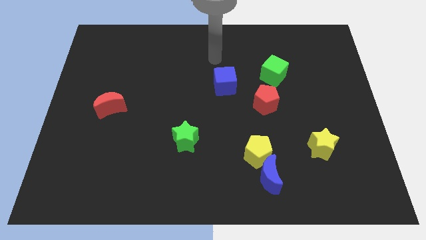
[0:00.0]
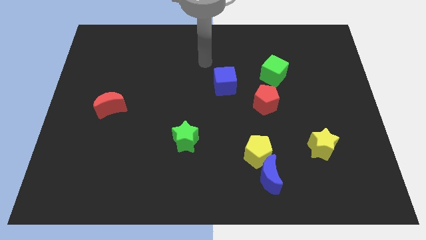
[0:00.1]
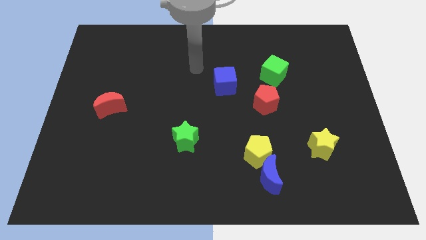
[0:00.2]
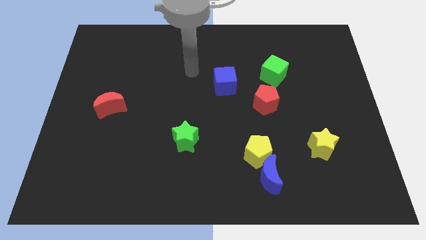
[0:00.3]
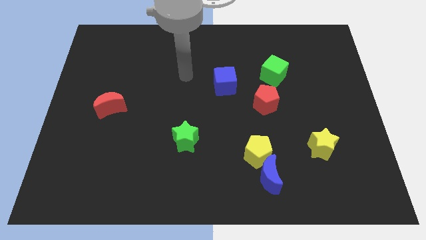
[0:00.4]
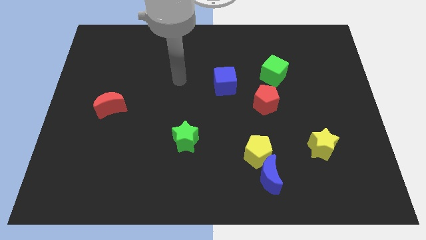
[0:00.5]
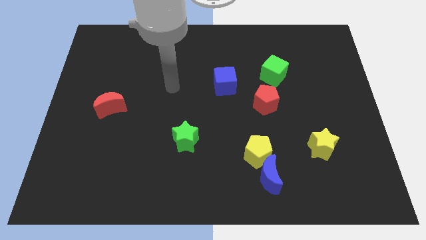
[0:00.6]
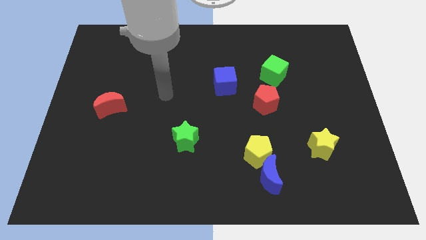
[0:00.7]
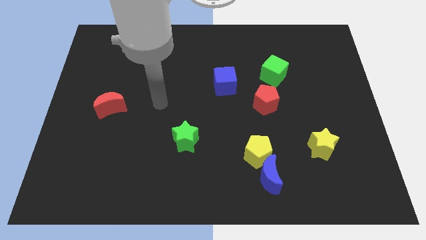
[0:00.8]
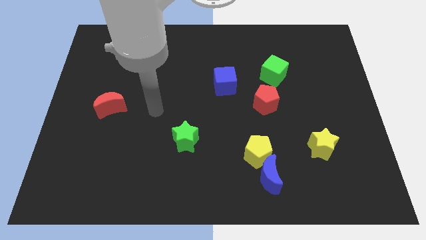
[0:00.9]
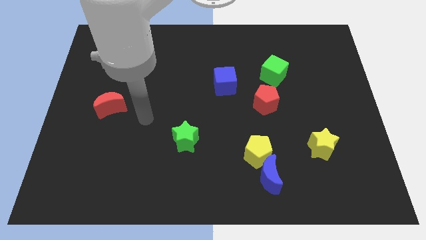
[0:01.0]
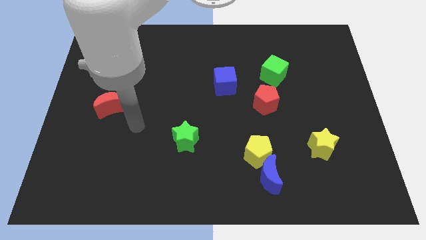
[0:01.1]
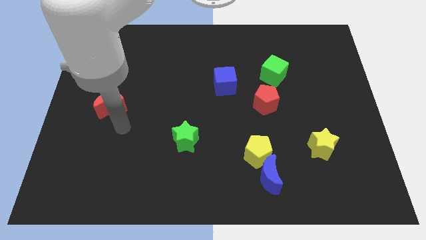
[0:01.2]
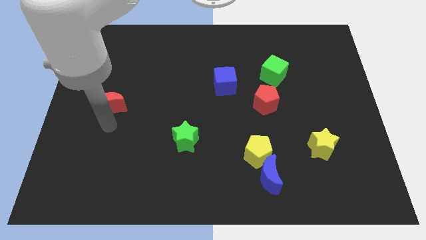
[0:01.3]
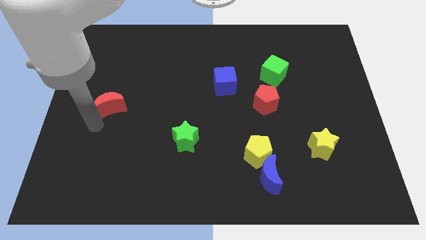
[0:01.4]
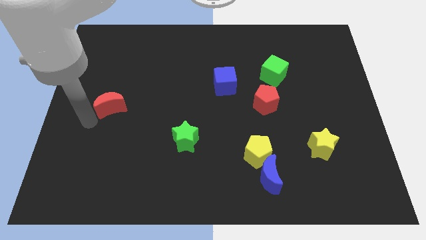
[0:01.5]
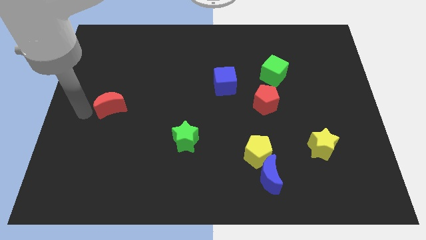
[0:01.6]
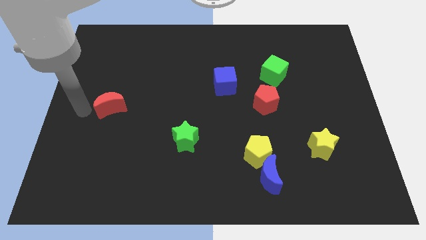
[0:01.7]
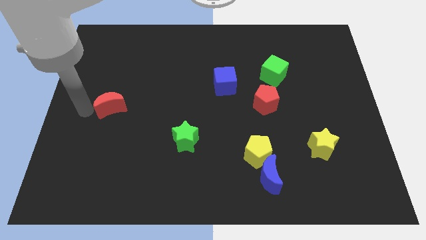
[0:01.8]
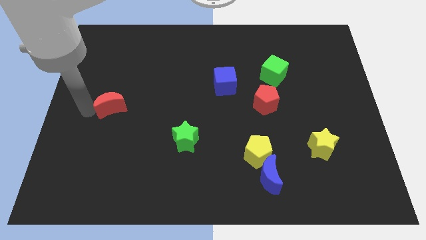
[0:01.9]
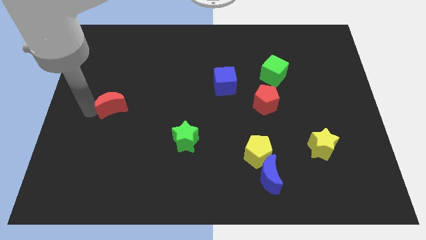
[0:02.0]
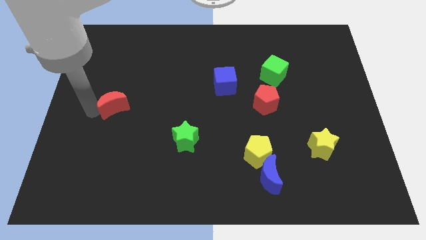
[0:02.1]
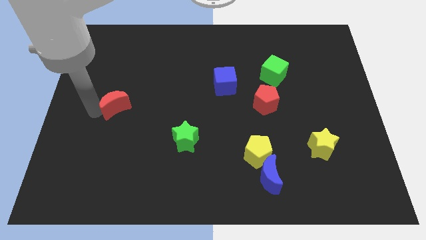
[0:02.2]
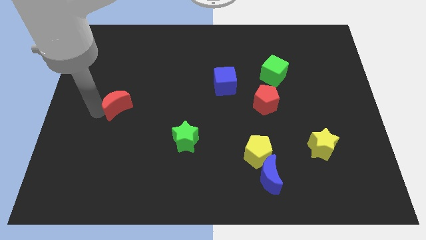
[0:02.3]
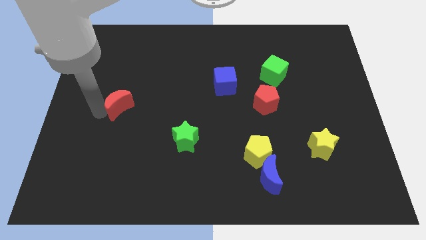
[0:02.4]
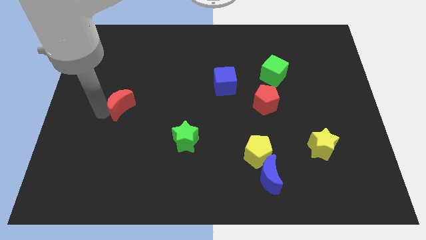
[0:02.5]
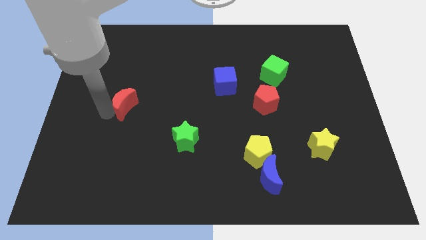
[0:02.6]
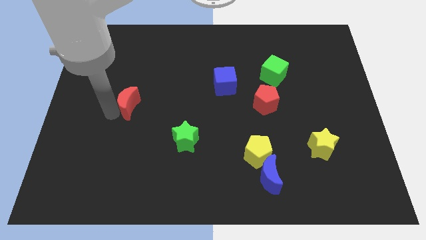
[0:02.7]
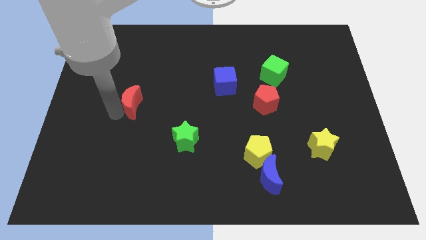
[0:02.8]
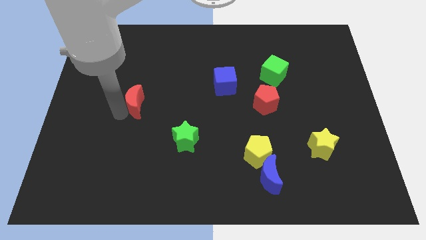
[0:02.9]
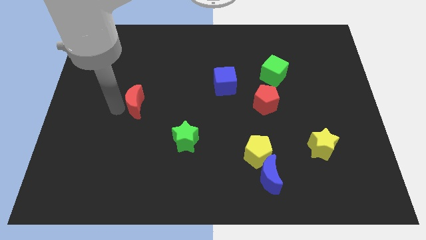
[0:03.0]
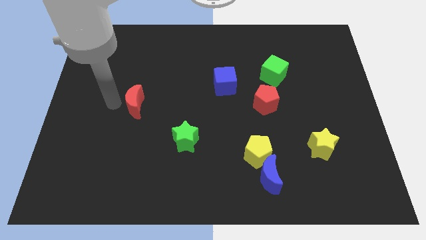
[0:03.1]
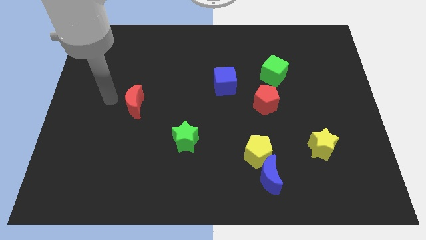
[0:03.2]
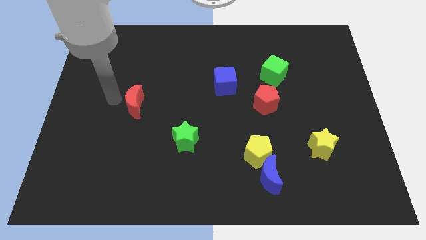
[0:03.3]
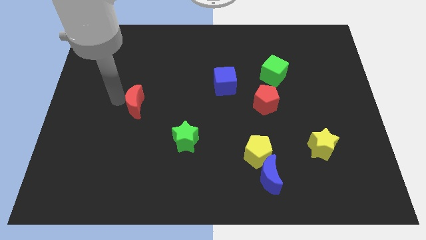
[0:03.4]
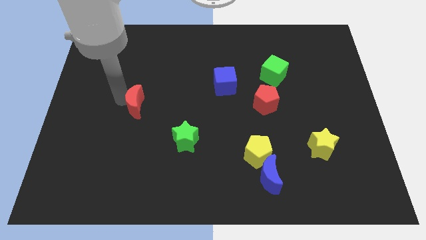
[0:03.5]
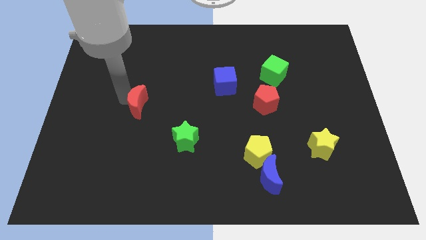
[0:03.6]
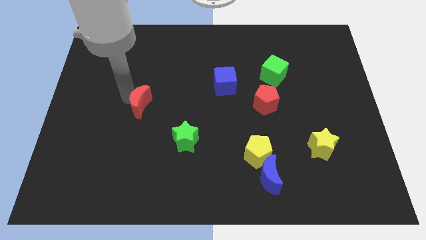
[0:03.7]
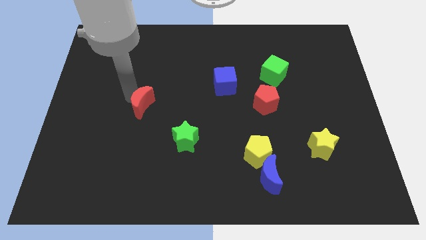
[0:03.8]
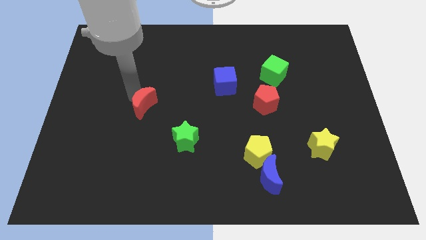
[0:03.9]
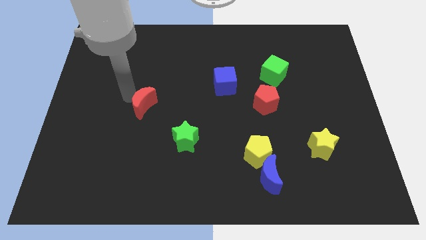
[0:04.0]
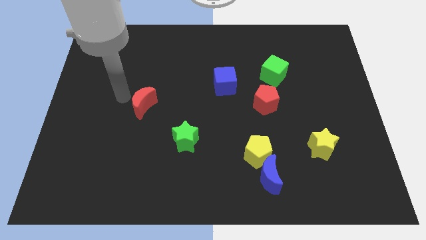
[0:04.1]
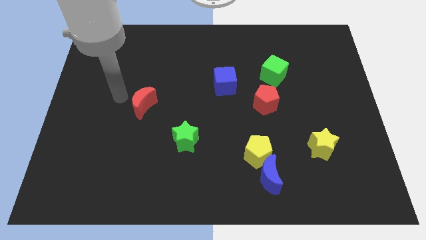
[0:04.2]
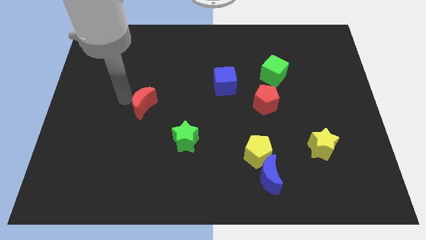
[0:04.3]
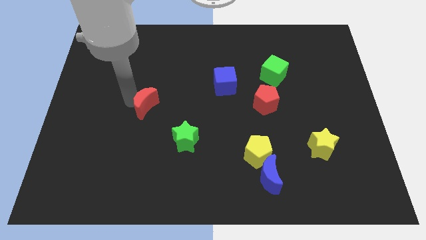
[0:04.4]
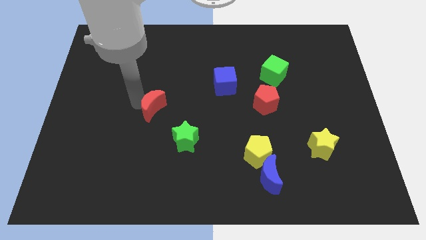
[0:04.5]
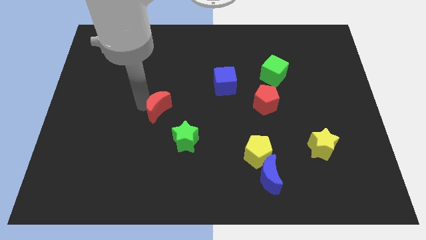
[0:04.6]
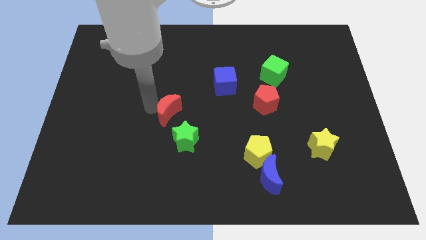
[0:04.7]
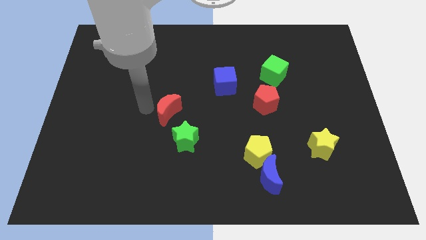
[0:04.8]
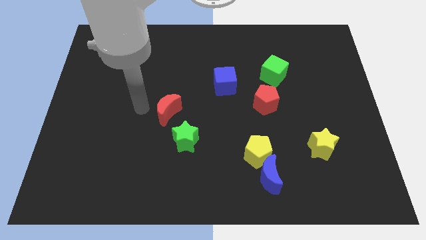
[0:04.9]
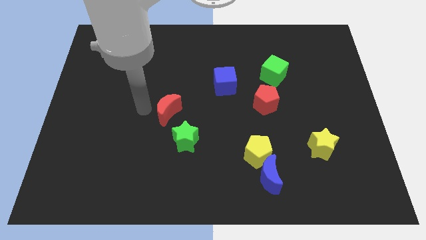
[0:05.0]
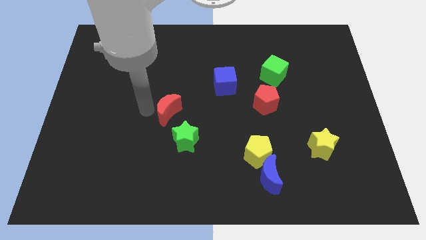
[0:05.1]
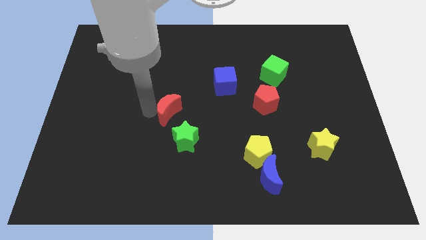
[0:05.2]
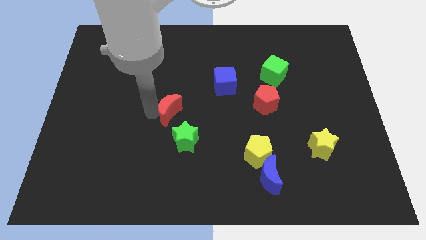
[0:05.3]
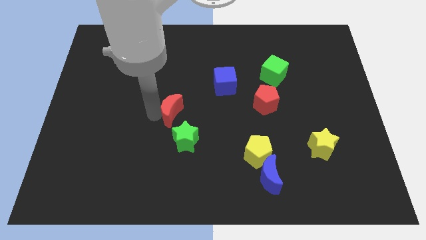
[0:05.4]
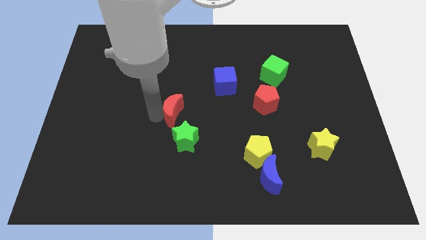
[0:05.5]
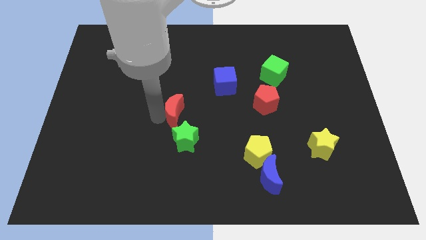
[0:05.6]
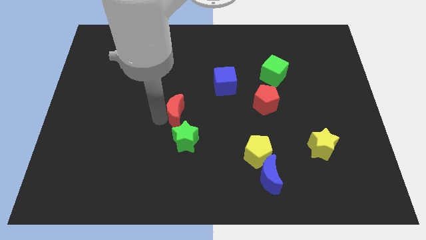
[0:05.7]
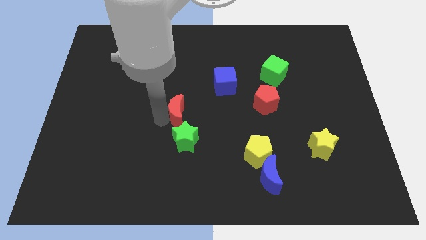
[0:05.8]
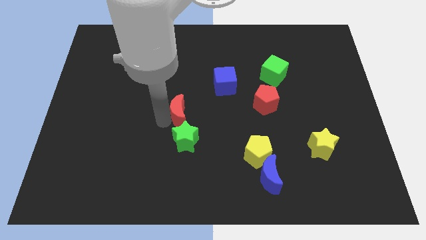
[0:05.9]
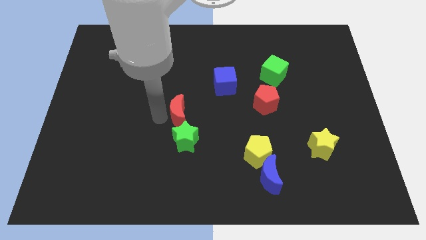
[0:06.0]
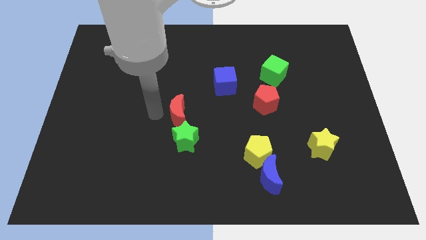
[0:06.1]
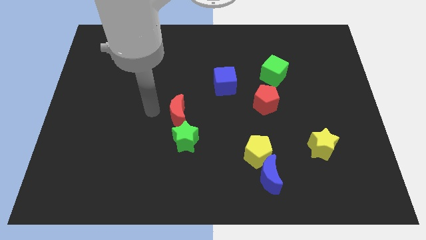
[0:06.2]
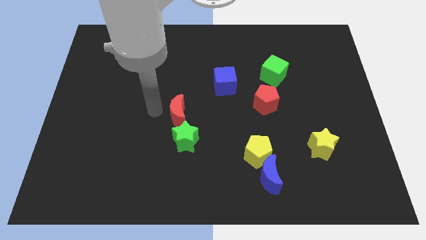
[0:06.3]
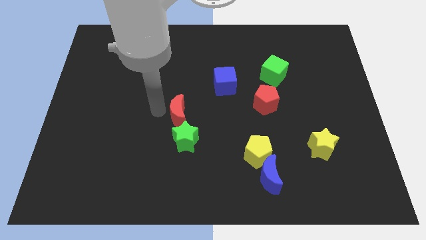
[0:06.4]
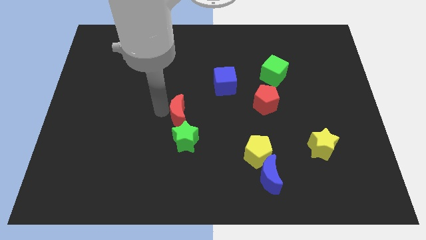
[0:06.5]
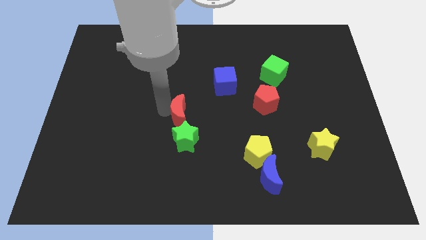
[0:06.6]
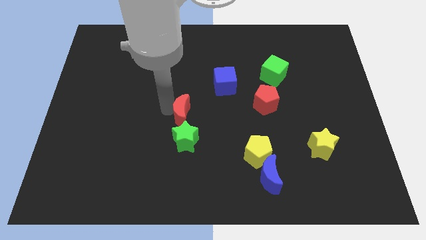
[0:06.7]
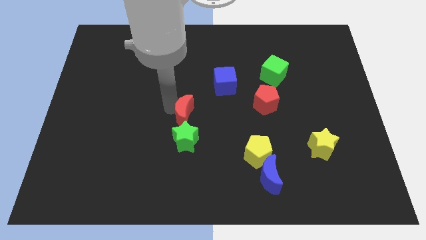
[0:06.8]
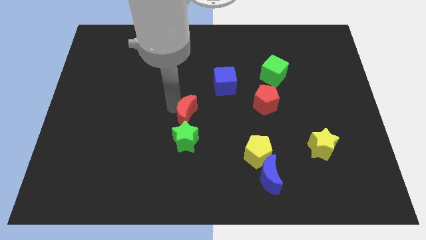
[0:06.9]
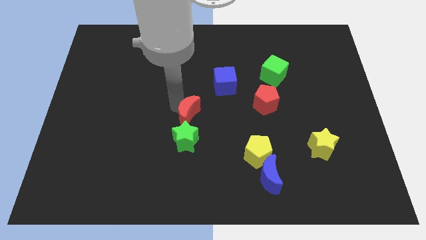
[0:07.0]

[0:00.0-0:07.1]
put the red moon to the top right of the green star

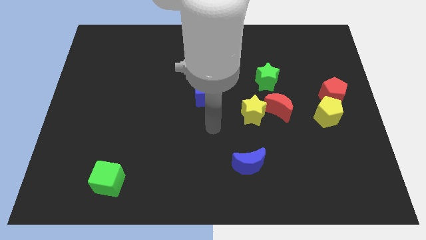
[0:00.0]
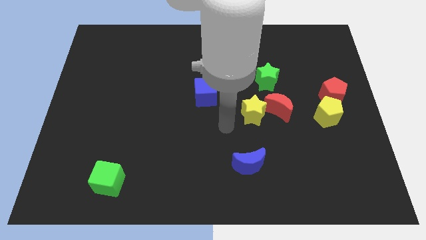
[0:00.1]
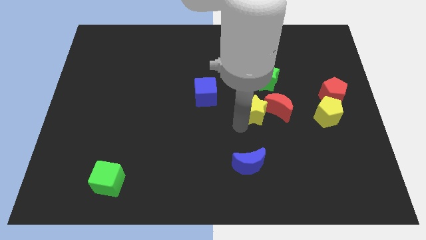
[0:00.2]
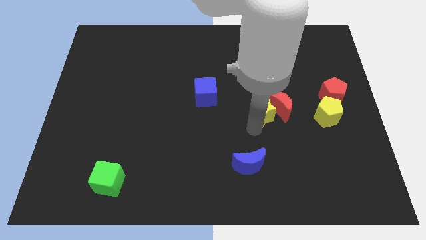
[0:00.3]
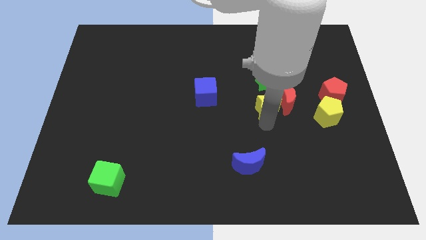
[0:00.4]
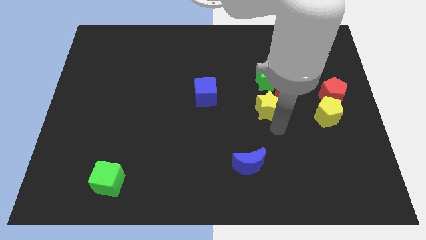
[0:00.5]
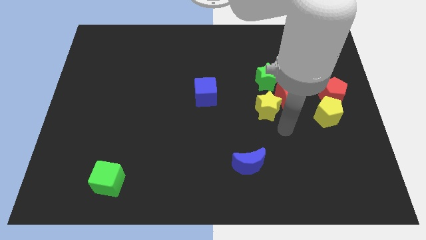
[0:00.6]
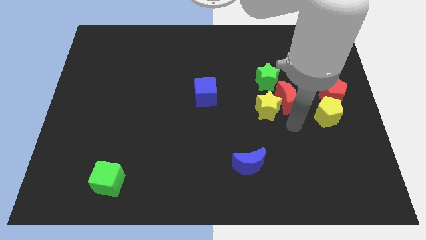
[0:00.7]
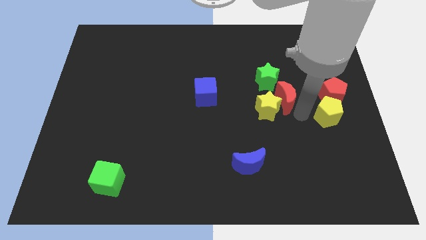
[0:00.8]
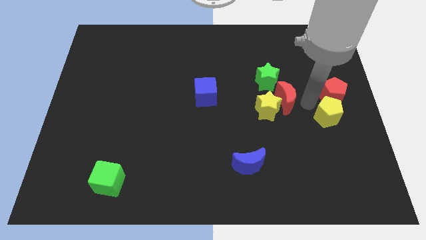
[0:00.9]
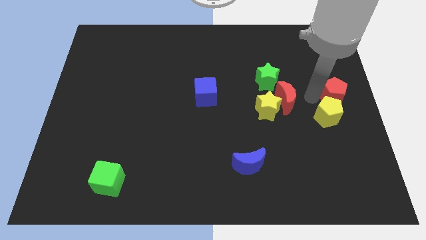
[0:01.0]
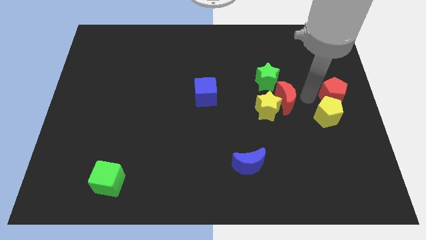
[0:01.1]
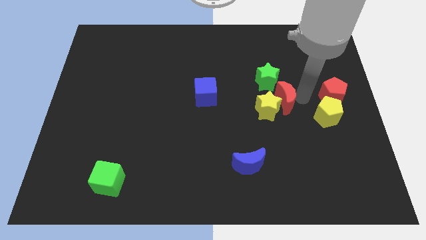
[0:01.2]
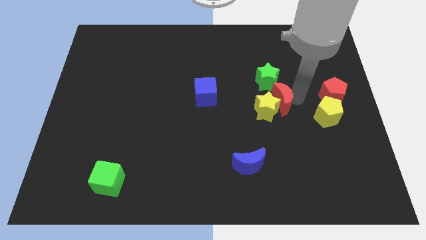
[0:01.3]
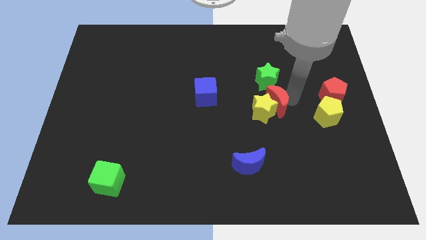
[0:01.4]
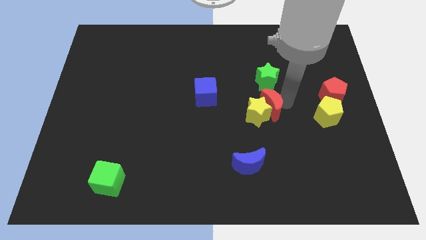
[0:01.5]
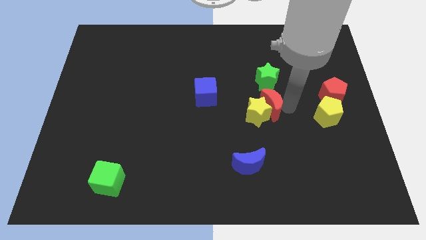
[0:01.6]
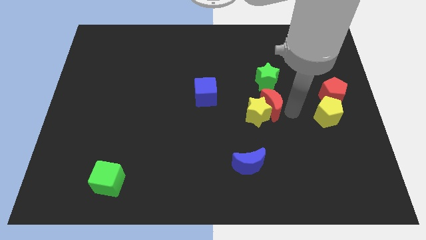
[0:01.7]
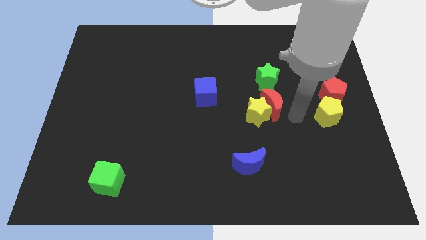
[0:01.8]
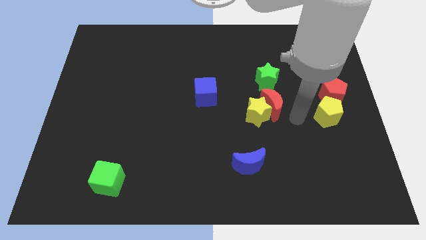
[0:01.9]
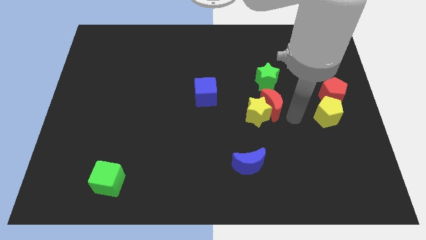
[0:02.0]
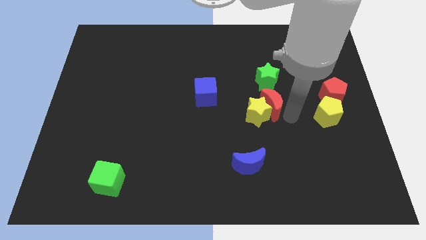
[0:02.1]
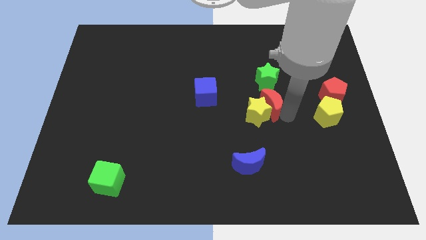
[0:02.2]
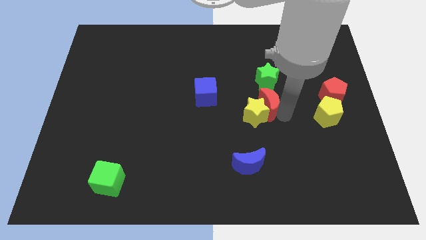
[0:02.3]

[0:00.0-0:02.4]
push the red moon to the right side of the blue cube
